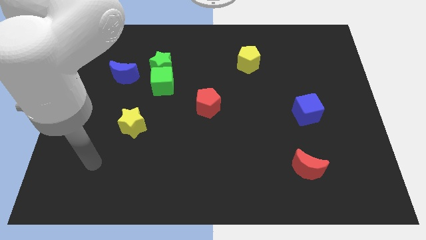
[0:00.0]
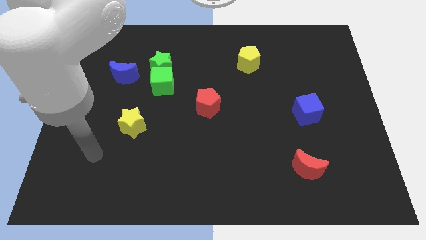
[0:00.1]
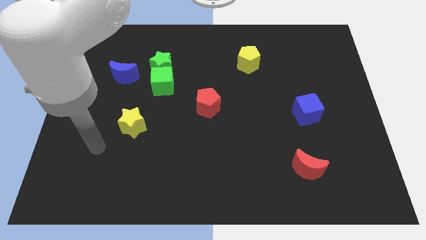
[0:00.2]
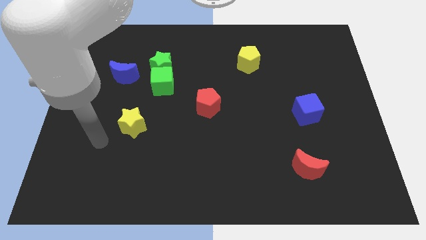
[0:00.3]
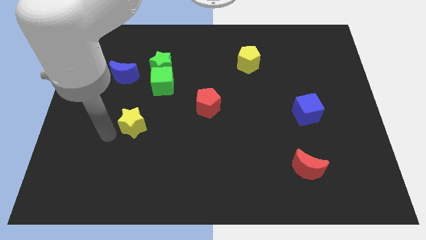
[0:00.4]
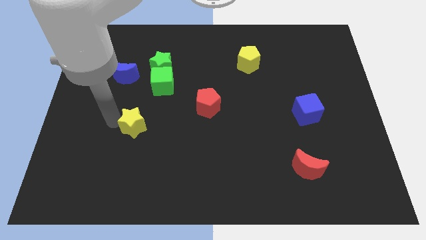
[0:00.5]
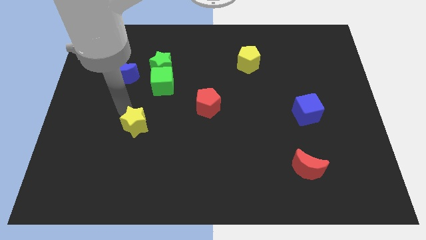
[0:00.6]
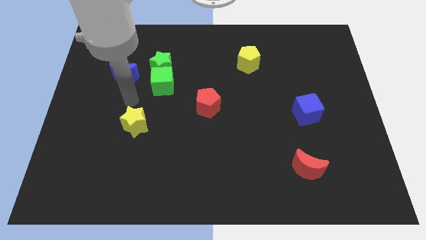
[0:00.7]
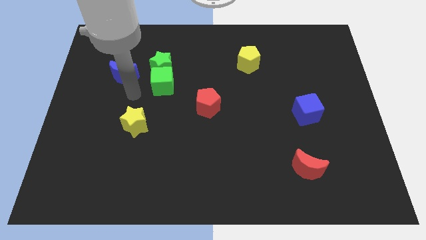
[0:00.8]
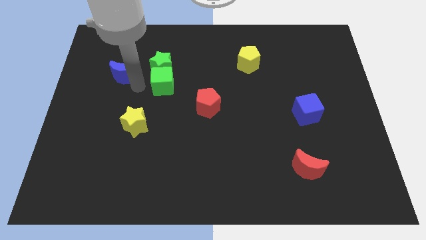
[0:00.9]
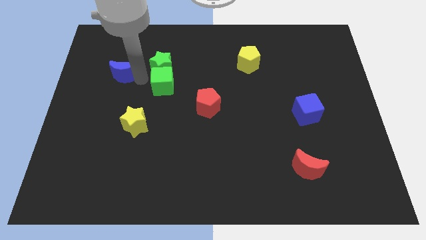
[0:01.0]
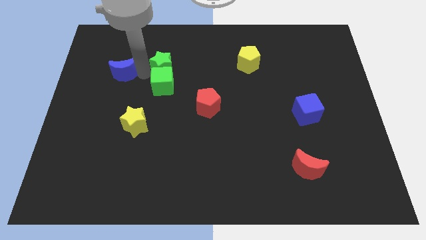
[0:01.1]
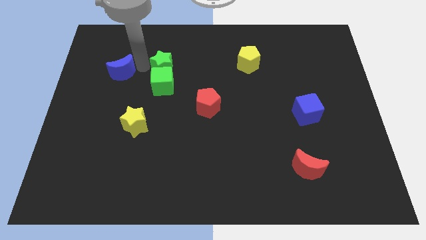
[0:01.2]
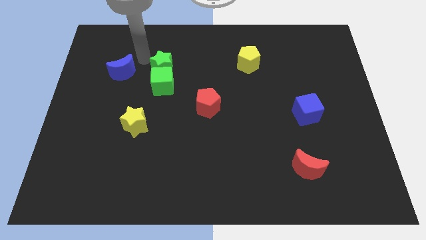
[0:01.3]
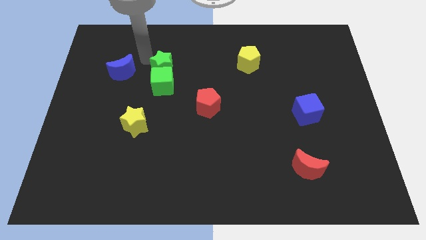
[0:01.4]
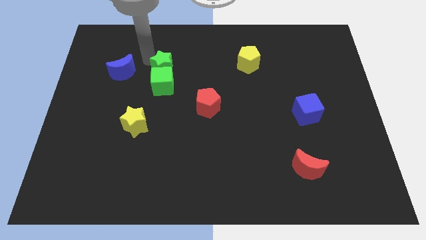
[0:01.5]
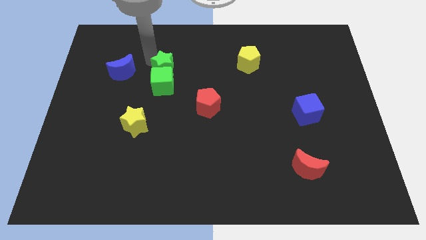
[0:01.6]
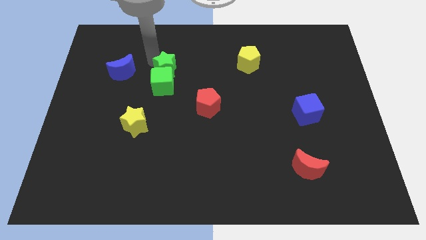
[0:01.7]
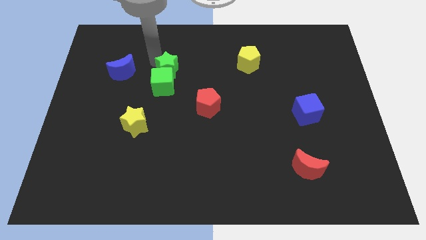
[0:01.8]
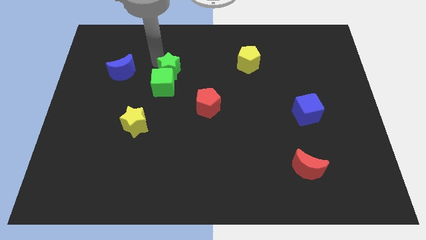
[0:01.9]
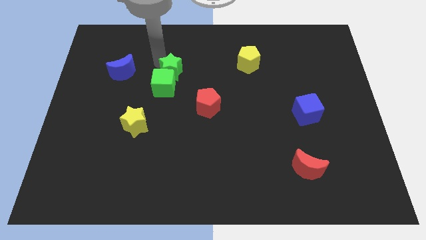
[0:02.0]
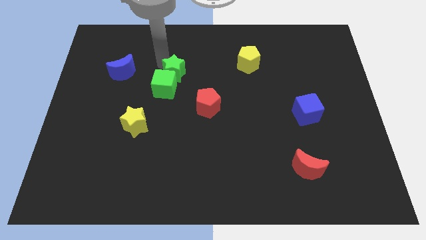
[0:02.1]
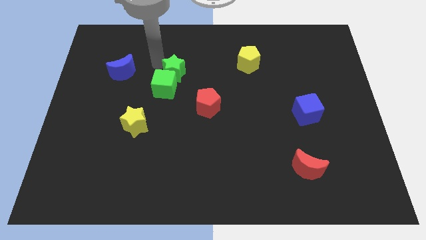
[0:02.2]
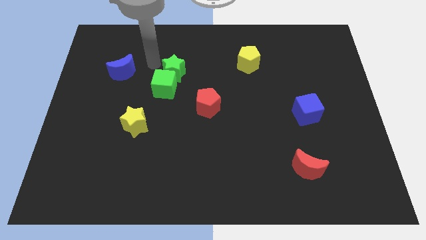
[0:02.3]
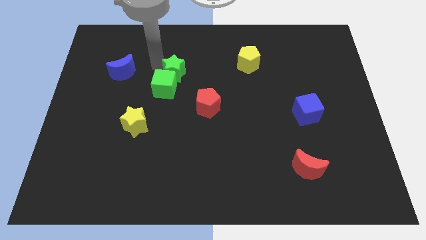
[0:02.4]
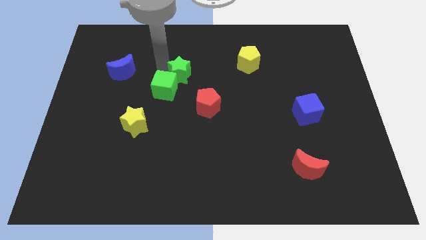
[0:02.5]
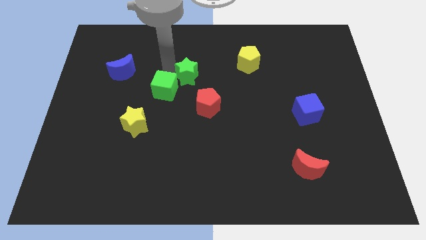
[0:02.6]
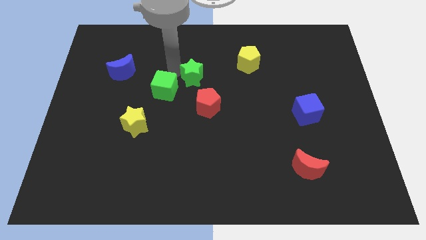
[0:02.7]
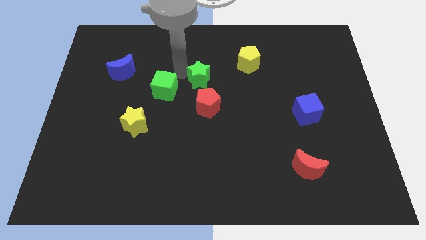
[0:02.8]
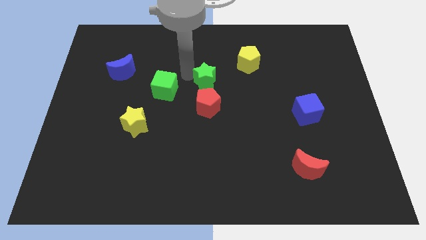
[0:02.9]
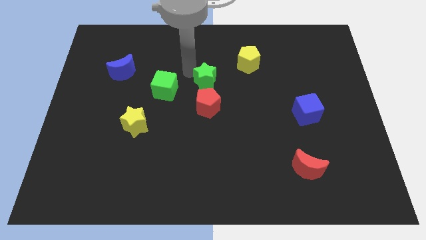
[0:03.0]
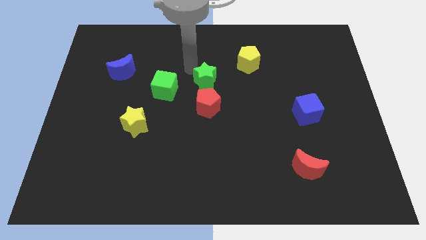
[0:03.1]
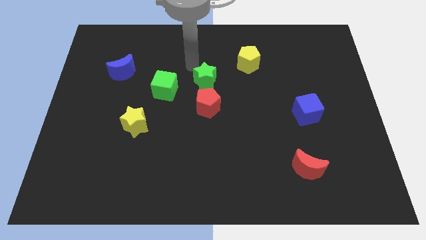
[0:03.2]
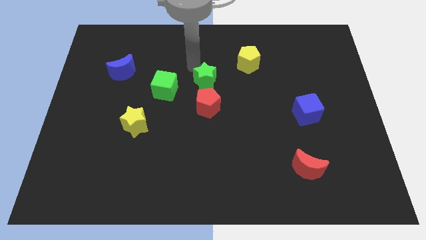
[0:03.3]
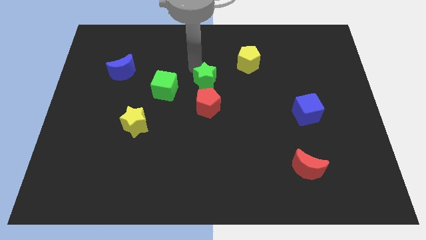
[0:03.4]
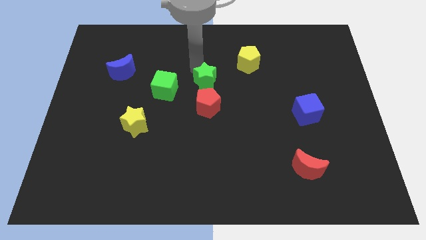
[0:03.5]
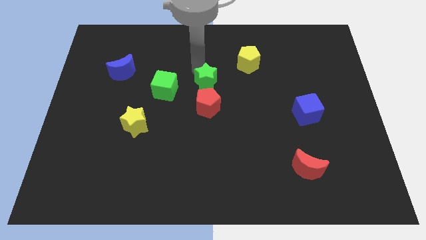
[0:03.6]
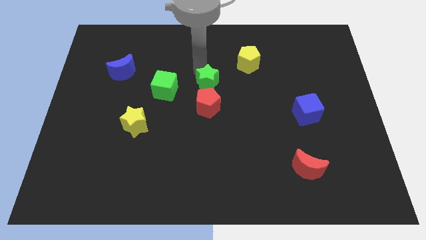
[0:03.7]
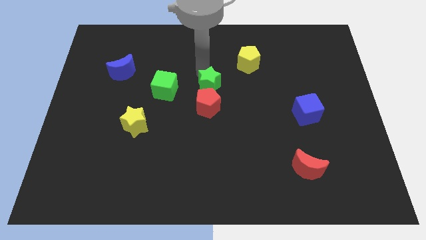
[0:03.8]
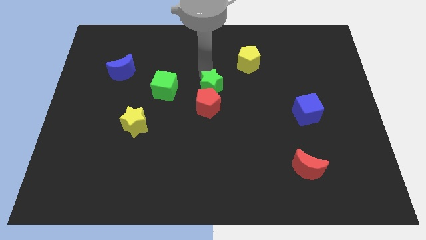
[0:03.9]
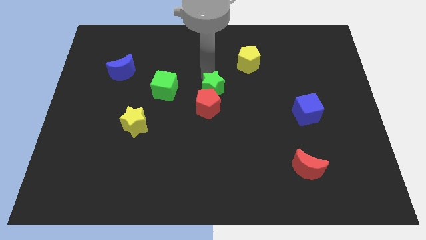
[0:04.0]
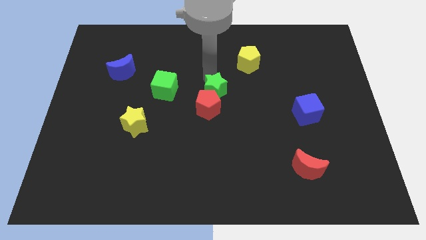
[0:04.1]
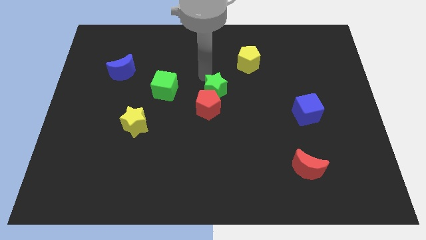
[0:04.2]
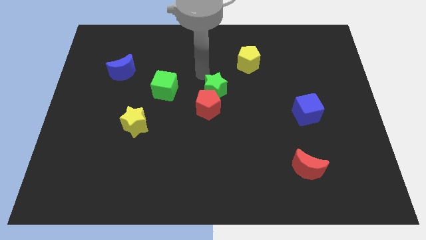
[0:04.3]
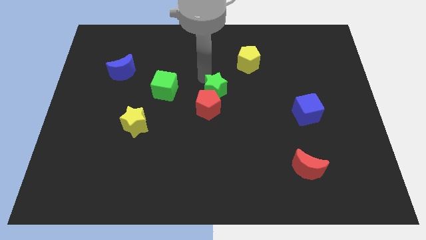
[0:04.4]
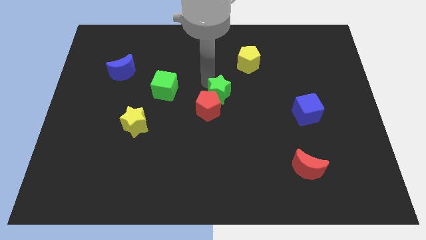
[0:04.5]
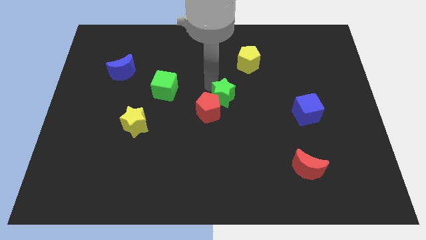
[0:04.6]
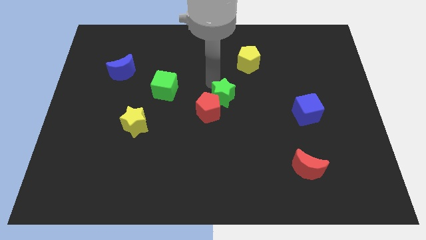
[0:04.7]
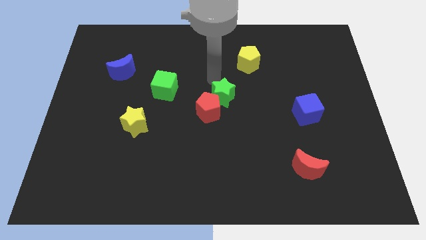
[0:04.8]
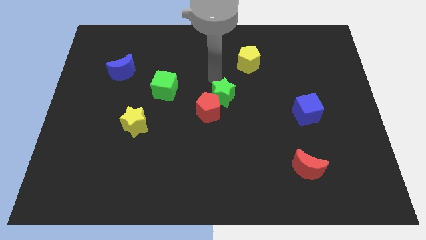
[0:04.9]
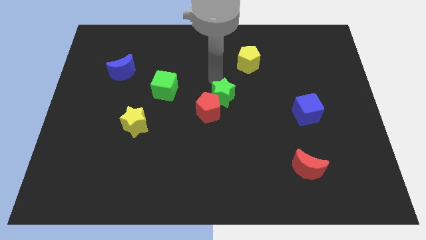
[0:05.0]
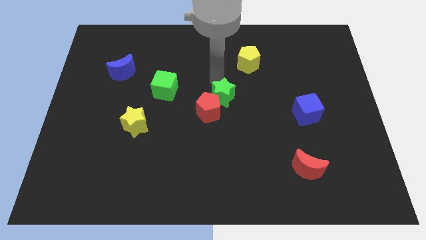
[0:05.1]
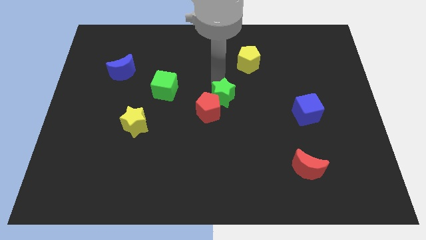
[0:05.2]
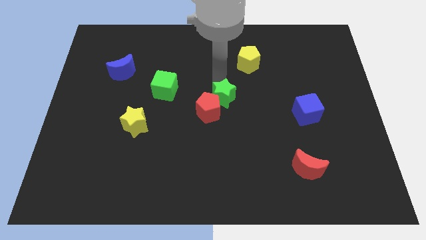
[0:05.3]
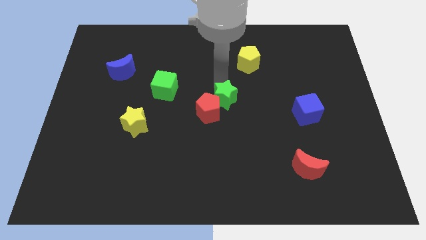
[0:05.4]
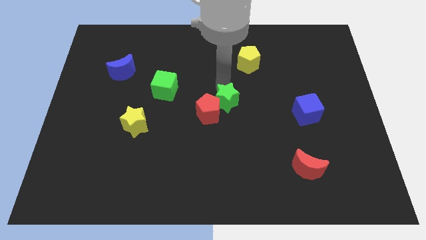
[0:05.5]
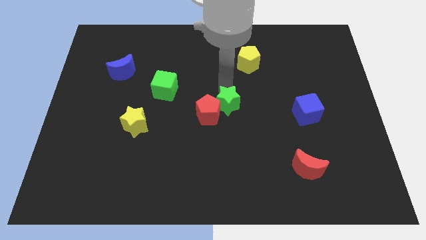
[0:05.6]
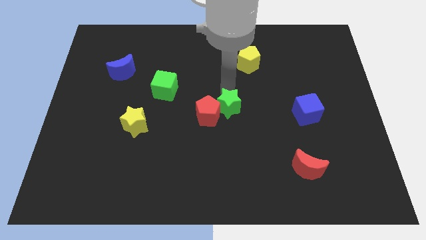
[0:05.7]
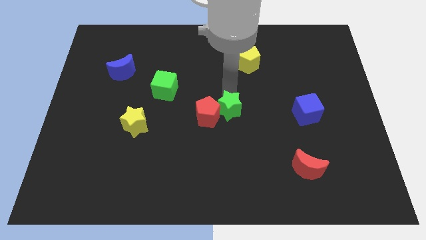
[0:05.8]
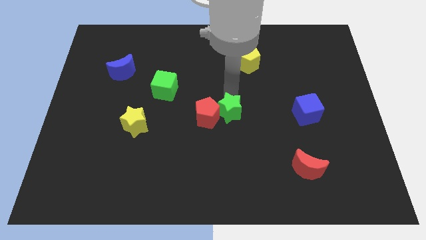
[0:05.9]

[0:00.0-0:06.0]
move the green star to the bottom right side of the red pentagon
